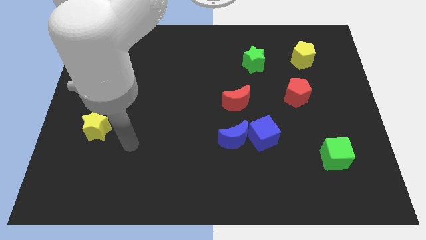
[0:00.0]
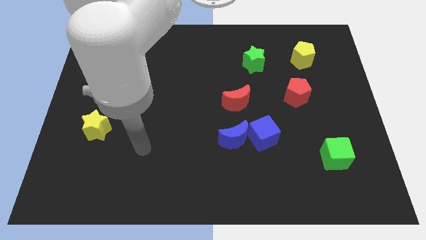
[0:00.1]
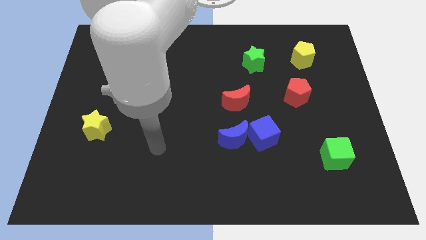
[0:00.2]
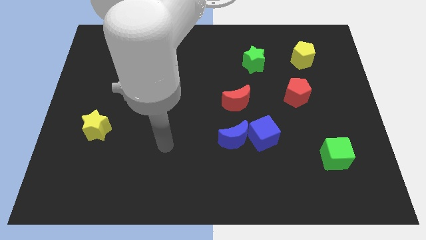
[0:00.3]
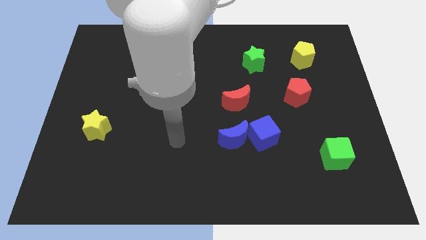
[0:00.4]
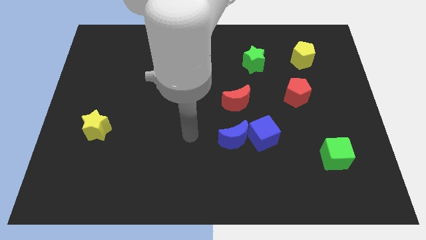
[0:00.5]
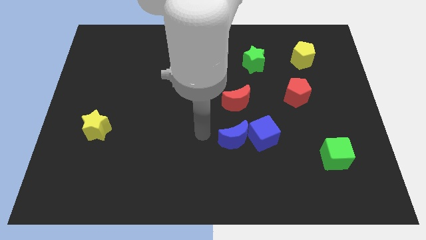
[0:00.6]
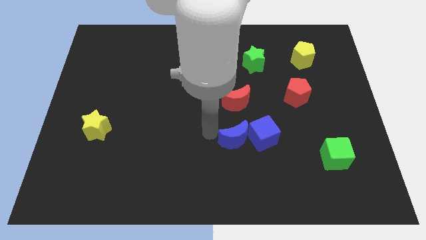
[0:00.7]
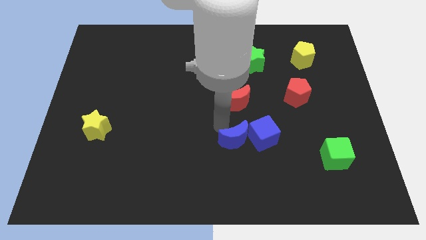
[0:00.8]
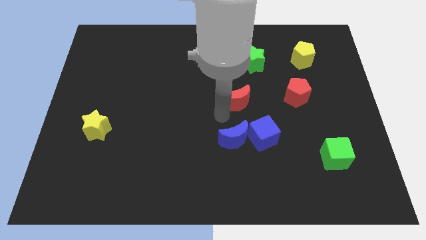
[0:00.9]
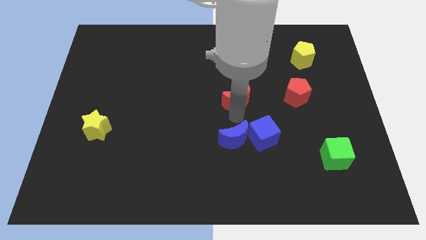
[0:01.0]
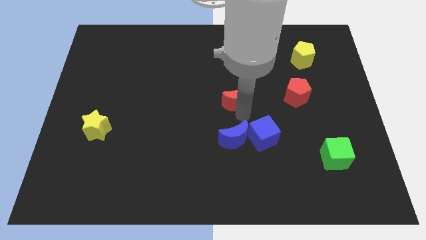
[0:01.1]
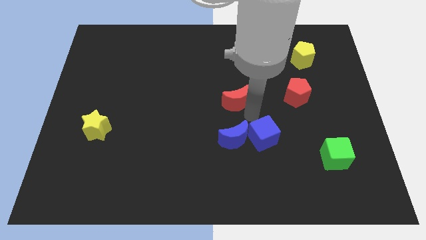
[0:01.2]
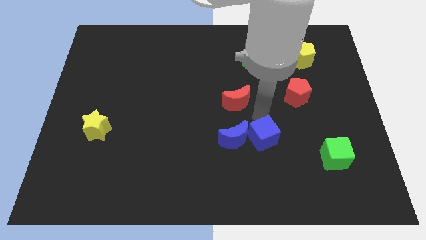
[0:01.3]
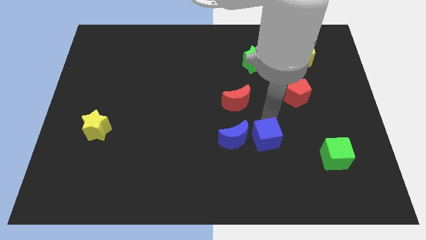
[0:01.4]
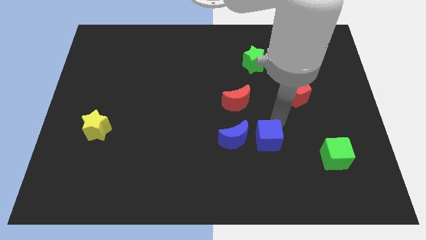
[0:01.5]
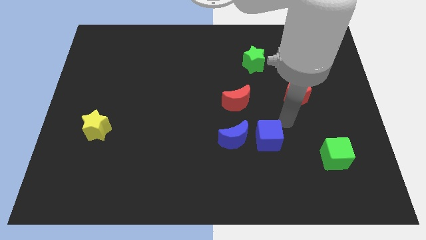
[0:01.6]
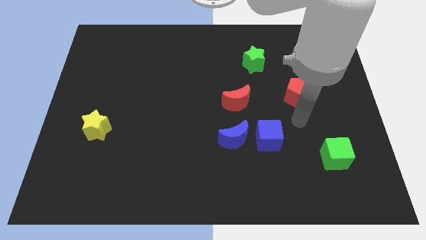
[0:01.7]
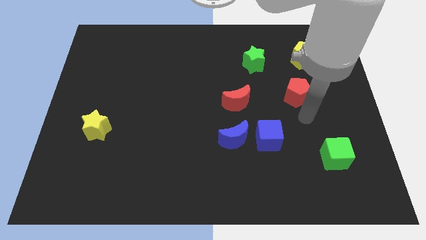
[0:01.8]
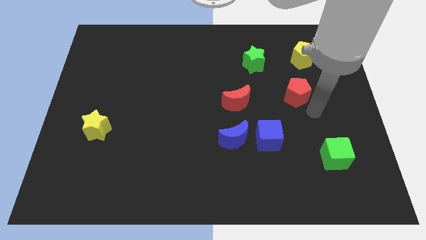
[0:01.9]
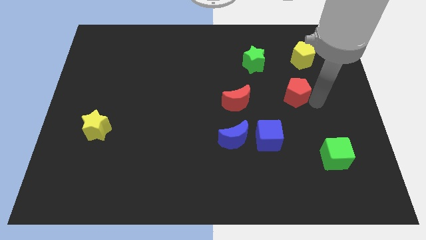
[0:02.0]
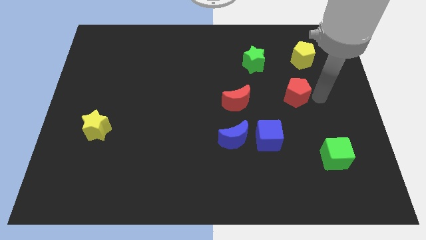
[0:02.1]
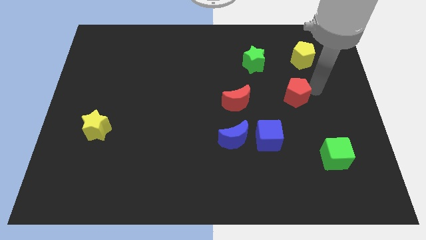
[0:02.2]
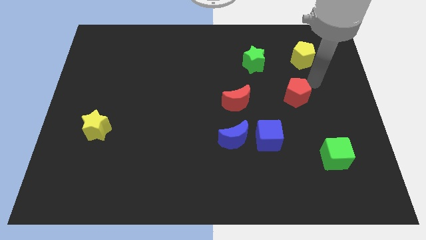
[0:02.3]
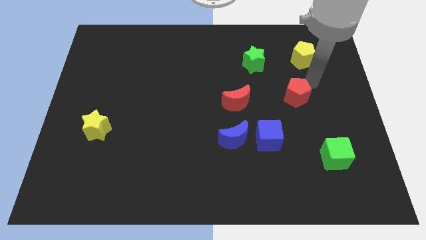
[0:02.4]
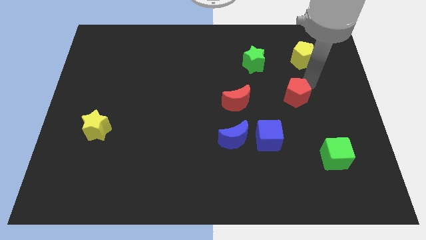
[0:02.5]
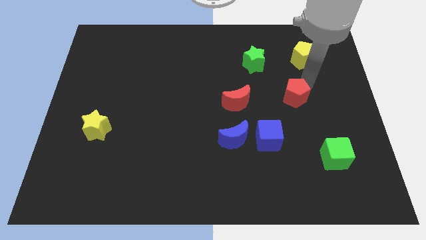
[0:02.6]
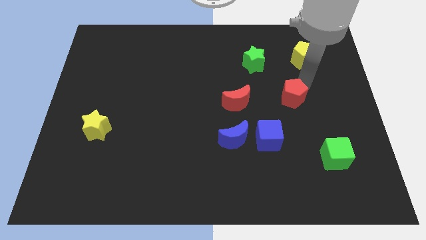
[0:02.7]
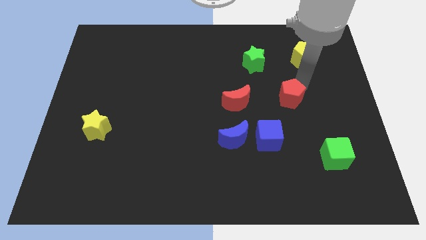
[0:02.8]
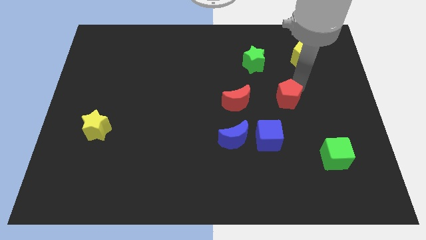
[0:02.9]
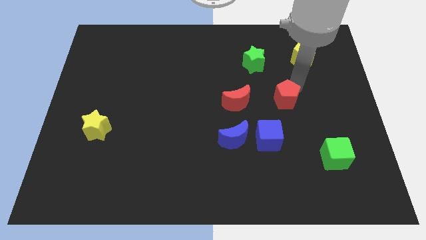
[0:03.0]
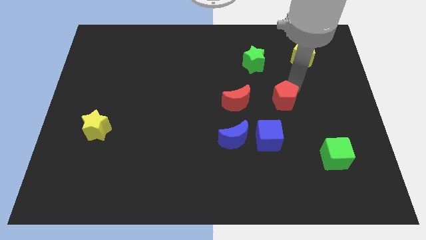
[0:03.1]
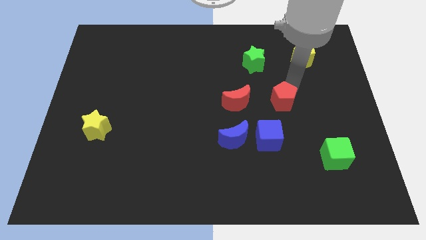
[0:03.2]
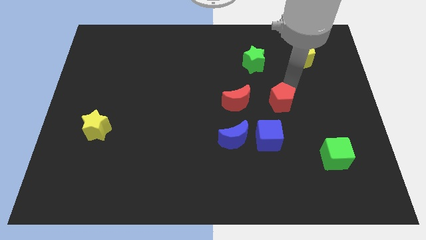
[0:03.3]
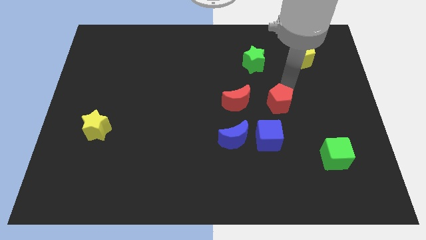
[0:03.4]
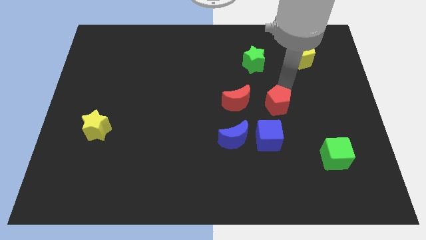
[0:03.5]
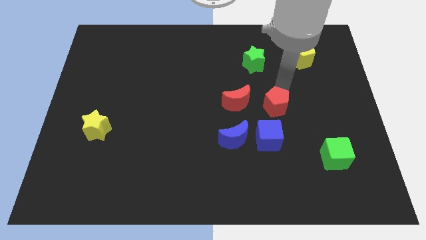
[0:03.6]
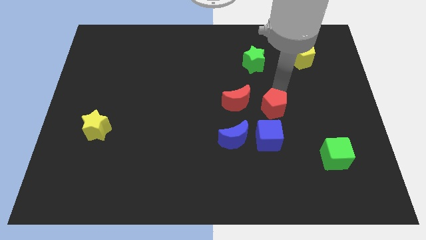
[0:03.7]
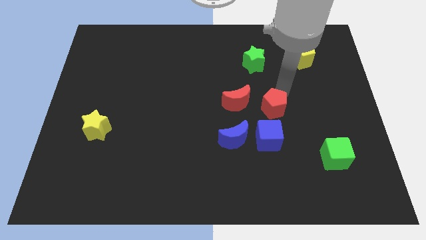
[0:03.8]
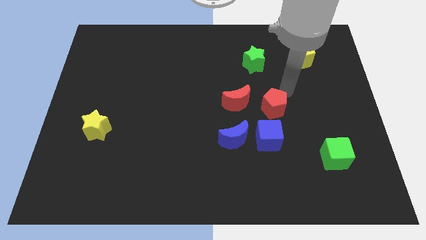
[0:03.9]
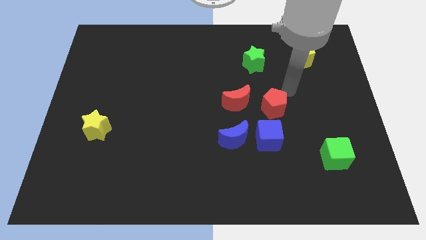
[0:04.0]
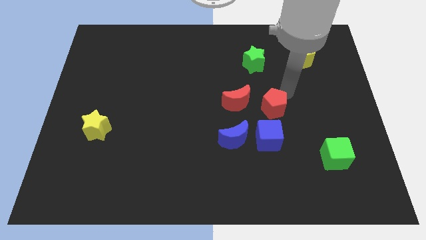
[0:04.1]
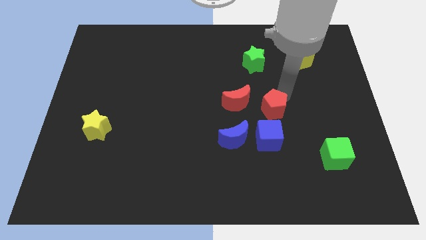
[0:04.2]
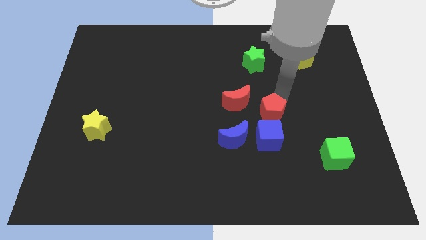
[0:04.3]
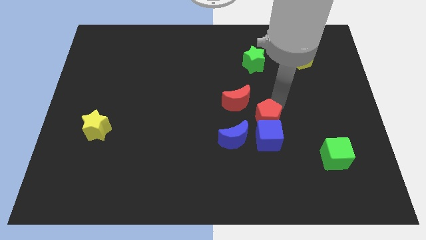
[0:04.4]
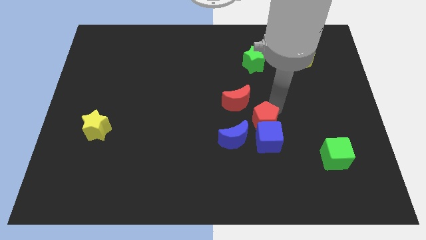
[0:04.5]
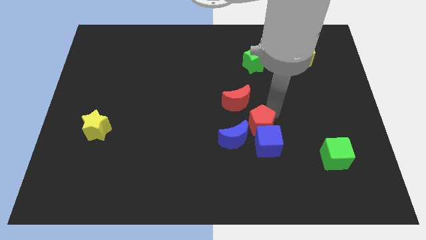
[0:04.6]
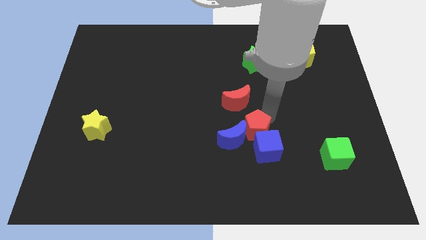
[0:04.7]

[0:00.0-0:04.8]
put the red pentagon to the blue moon

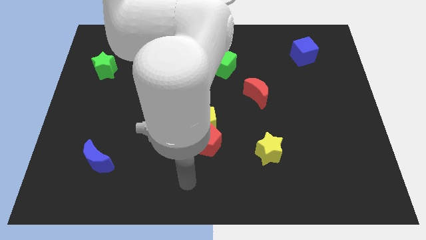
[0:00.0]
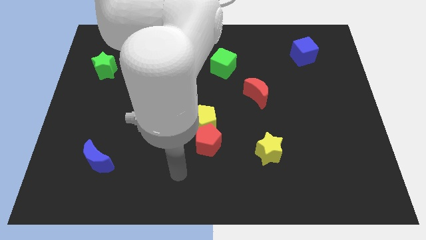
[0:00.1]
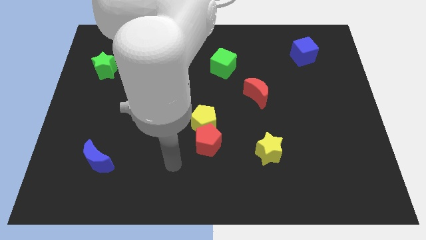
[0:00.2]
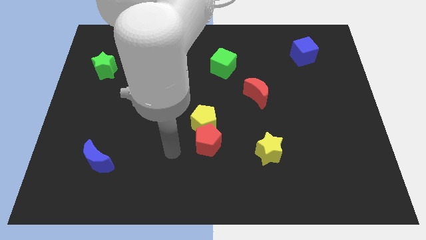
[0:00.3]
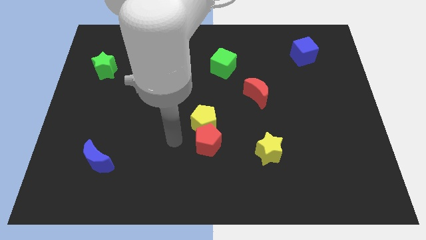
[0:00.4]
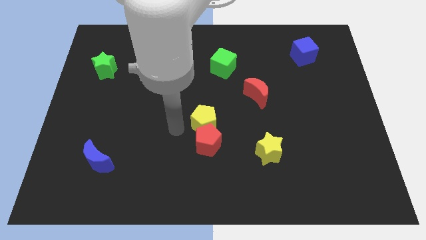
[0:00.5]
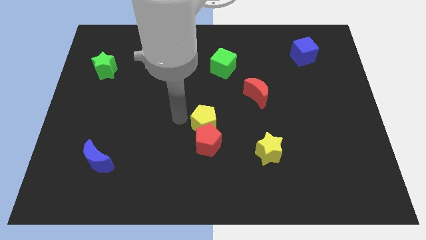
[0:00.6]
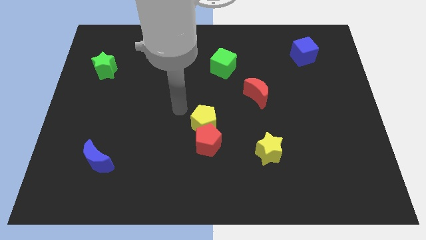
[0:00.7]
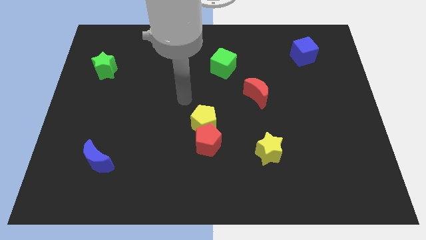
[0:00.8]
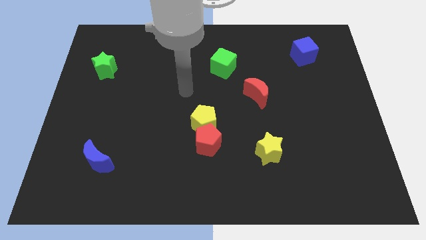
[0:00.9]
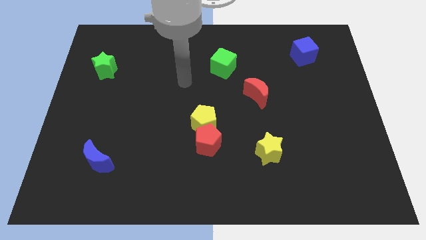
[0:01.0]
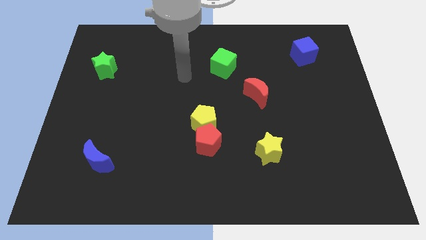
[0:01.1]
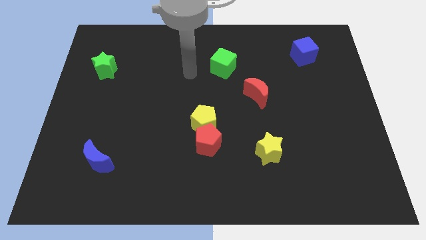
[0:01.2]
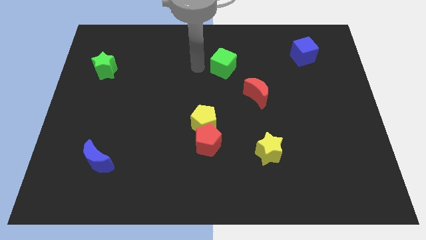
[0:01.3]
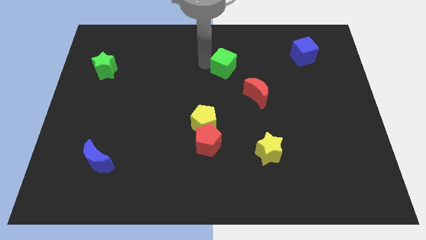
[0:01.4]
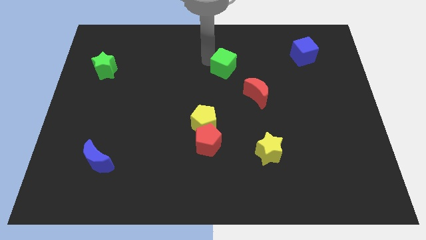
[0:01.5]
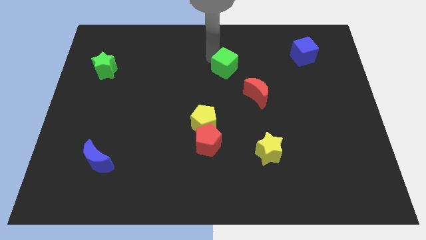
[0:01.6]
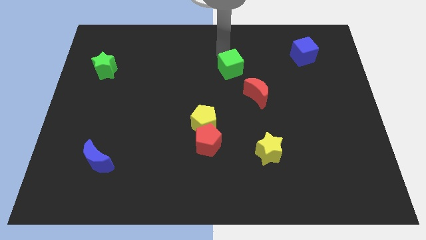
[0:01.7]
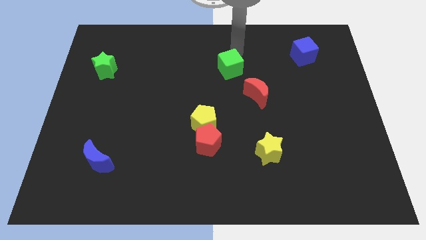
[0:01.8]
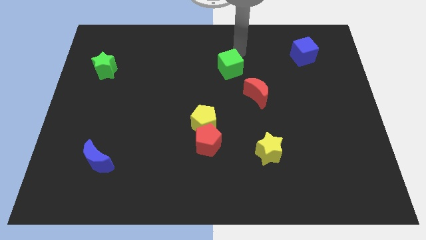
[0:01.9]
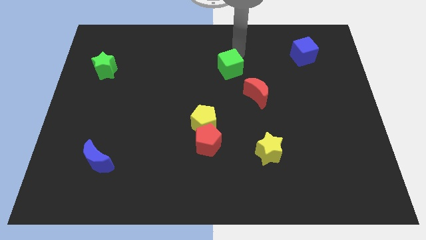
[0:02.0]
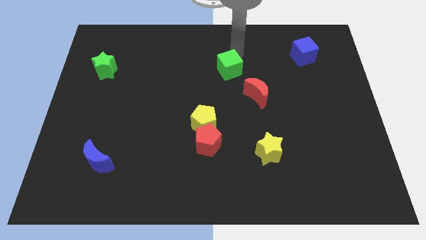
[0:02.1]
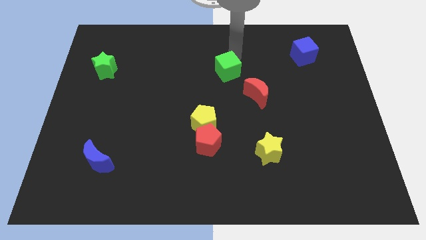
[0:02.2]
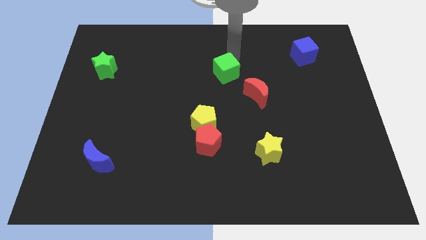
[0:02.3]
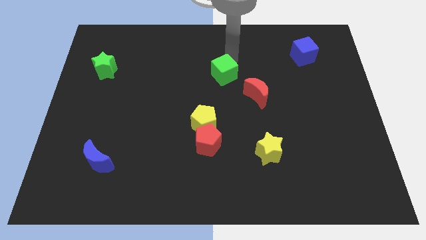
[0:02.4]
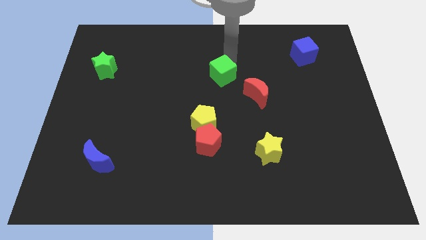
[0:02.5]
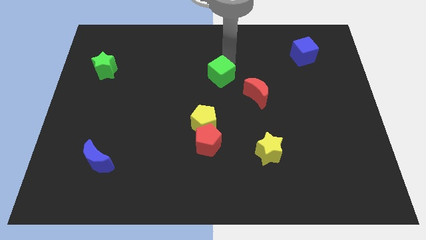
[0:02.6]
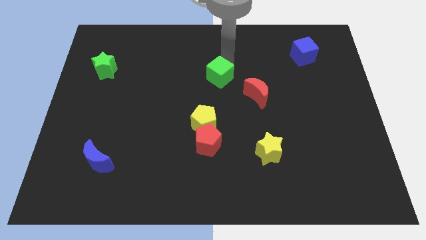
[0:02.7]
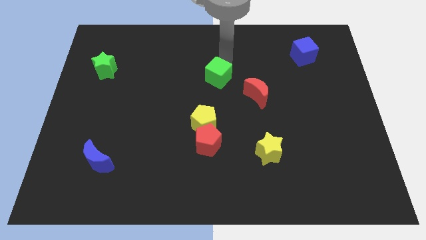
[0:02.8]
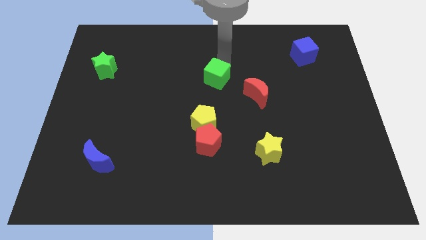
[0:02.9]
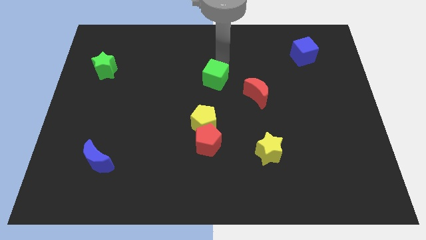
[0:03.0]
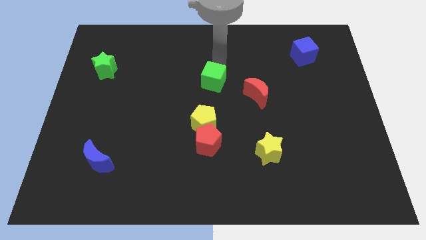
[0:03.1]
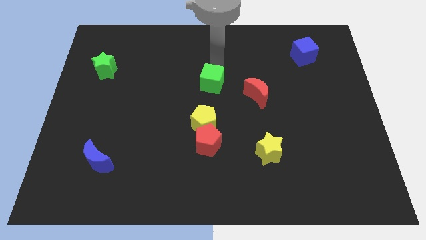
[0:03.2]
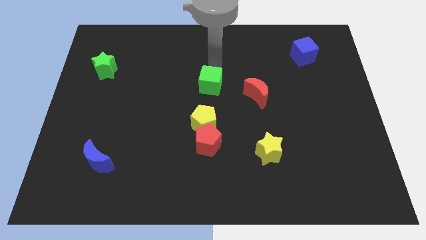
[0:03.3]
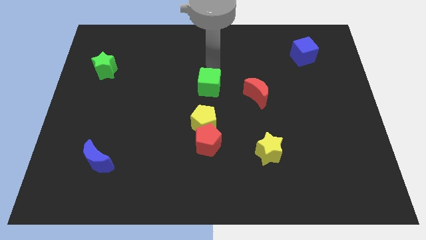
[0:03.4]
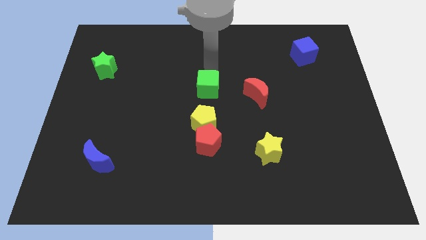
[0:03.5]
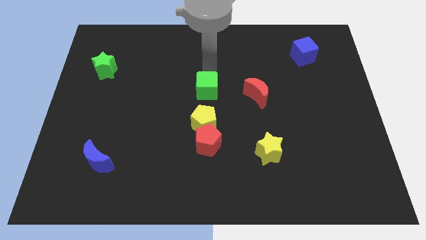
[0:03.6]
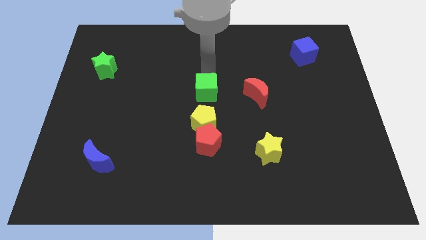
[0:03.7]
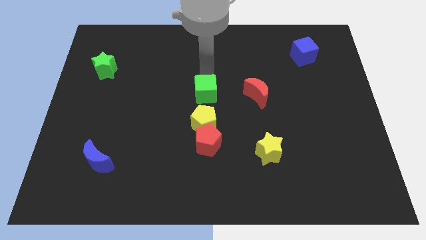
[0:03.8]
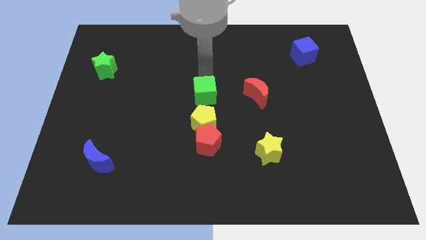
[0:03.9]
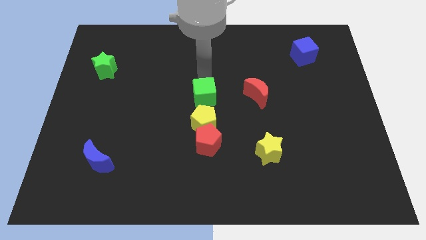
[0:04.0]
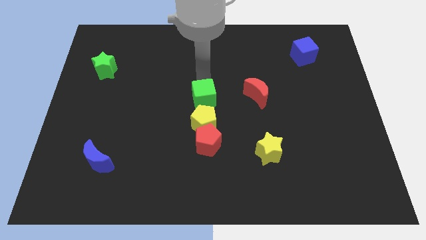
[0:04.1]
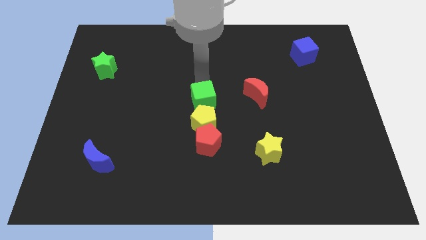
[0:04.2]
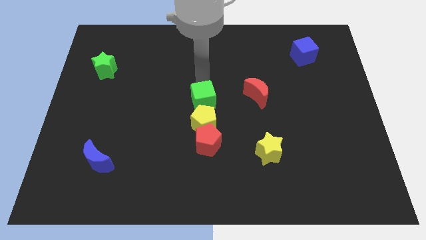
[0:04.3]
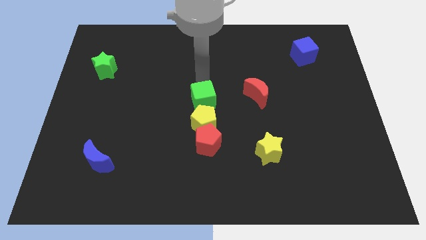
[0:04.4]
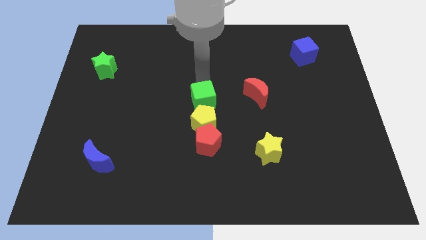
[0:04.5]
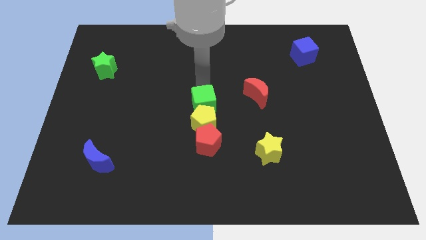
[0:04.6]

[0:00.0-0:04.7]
put the green cube next to the yellow pentagon
